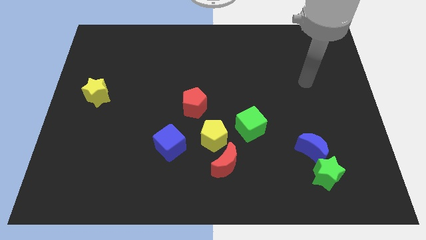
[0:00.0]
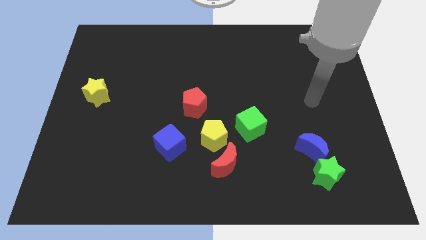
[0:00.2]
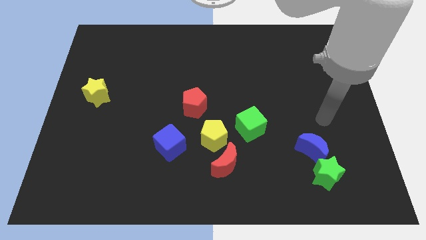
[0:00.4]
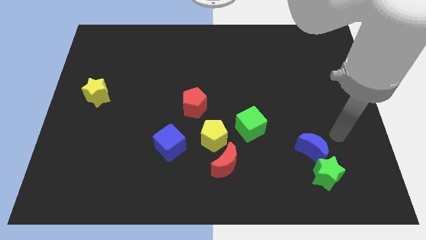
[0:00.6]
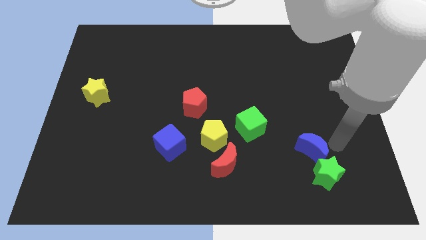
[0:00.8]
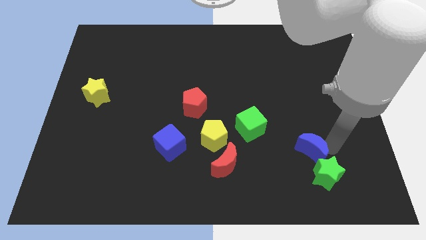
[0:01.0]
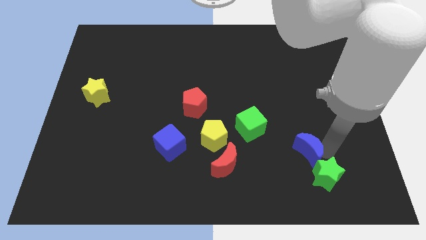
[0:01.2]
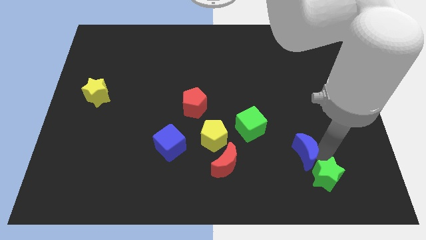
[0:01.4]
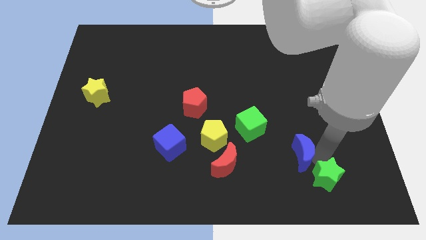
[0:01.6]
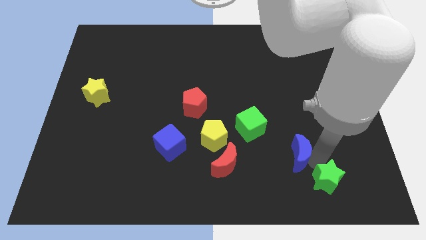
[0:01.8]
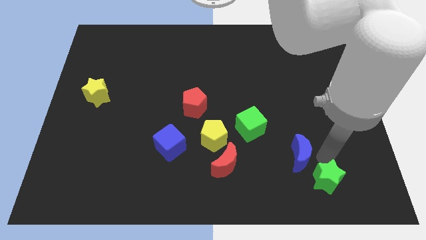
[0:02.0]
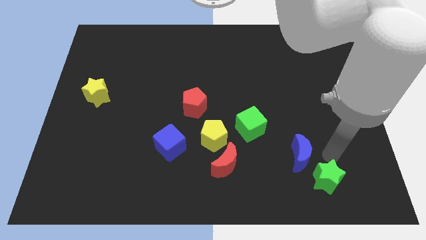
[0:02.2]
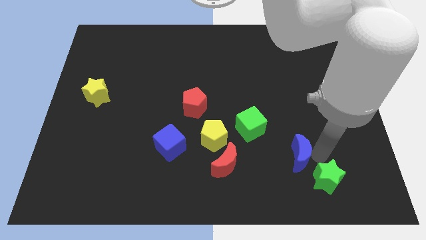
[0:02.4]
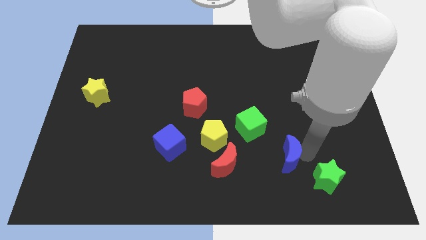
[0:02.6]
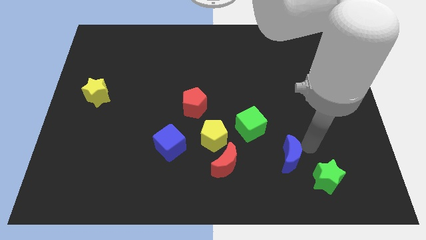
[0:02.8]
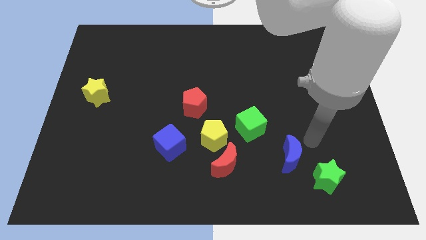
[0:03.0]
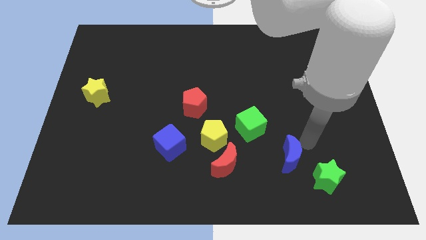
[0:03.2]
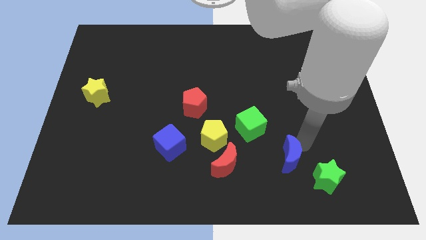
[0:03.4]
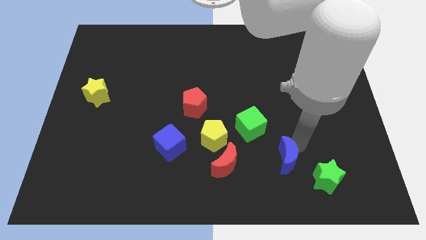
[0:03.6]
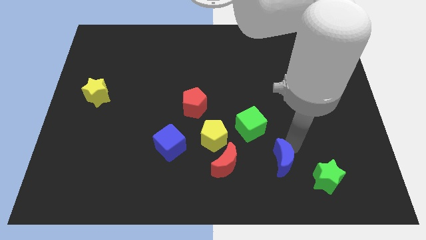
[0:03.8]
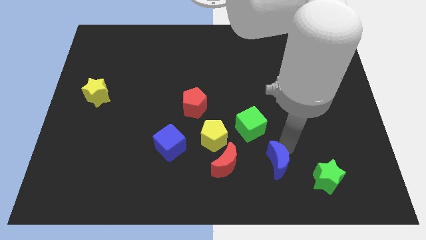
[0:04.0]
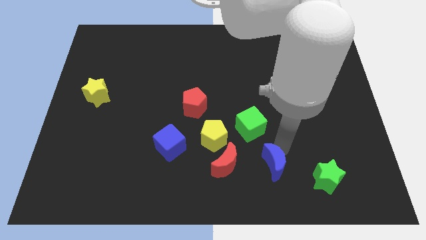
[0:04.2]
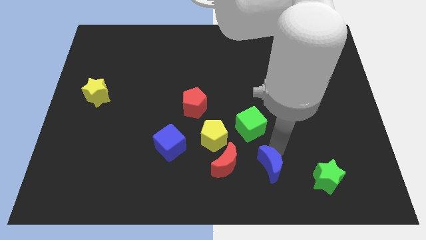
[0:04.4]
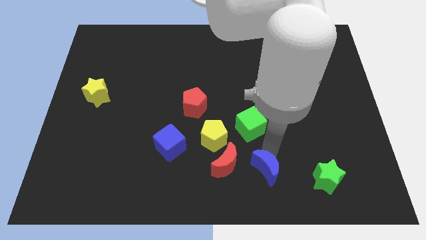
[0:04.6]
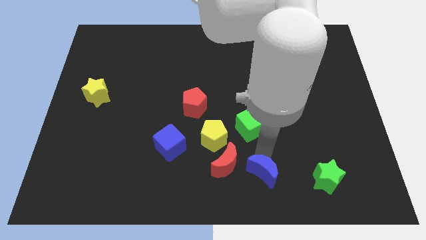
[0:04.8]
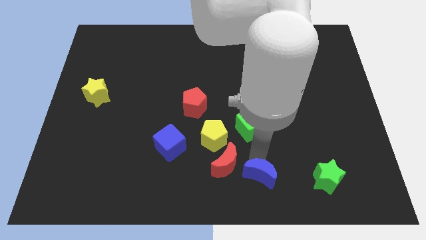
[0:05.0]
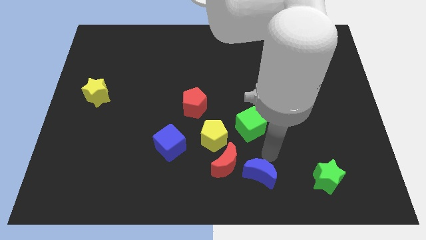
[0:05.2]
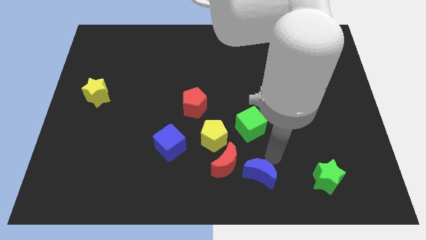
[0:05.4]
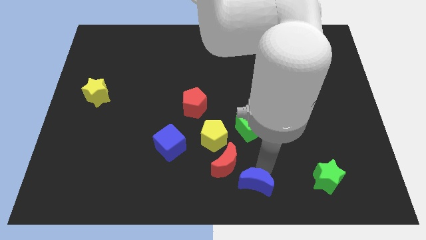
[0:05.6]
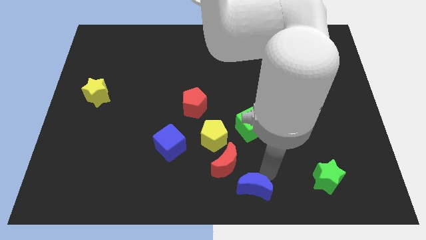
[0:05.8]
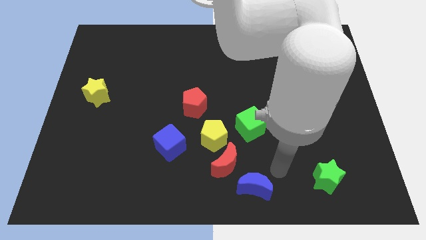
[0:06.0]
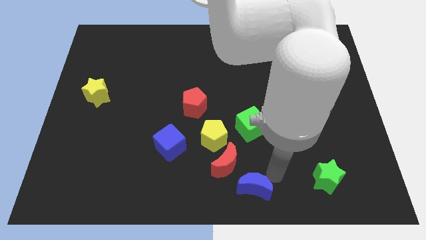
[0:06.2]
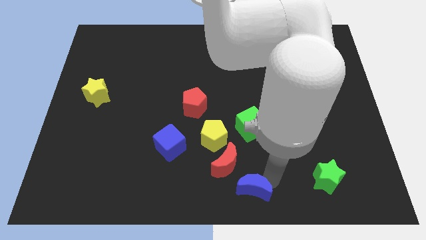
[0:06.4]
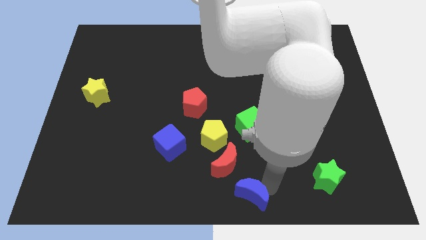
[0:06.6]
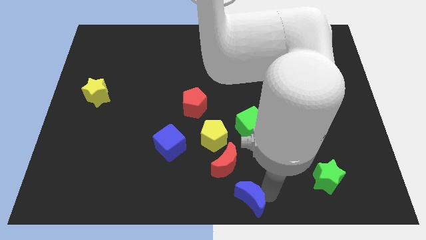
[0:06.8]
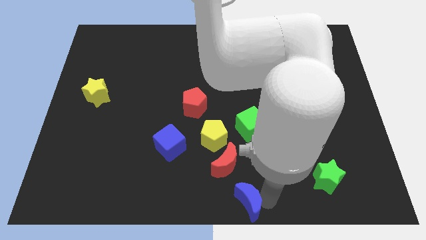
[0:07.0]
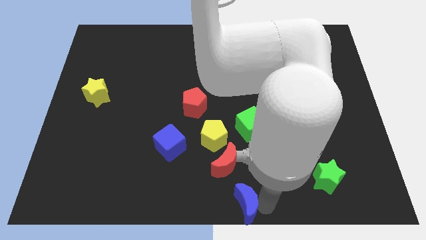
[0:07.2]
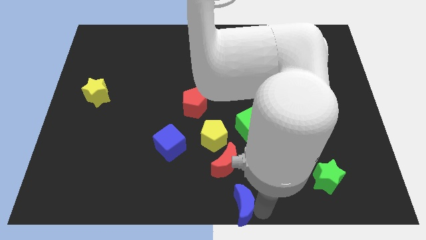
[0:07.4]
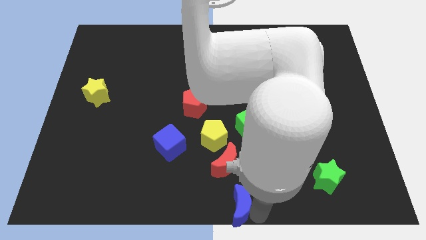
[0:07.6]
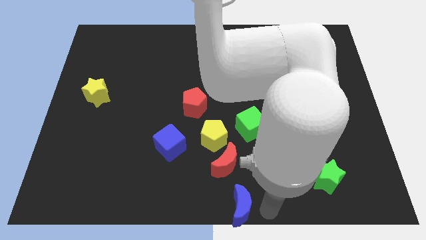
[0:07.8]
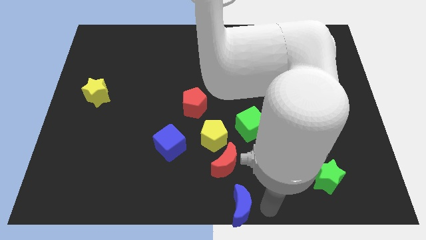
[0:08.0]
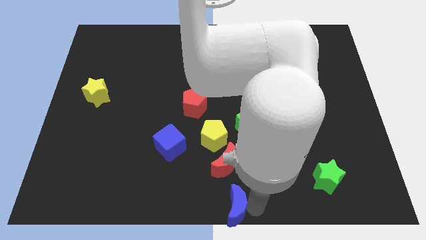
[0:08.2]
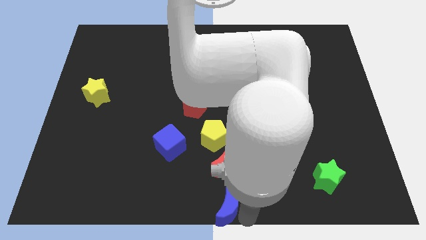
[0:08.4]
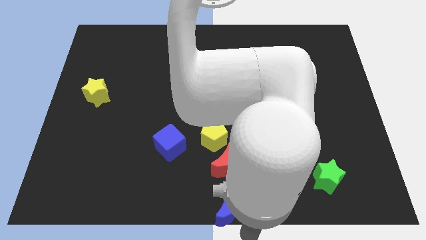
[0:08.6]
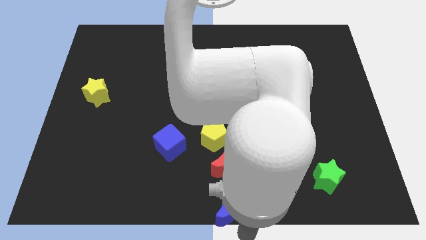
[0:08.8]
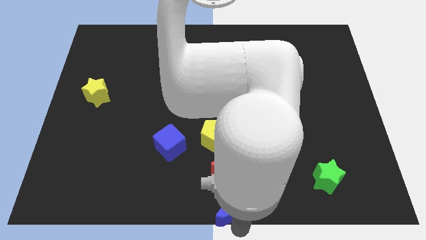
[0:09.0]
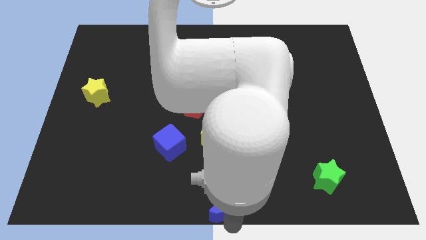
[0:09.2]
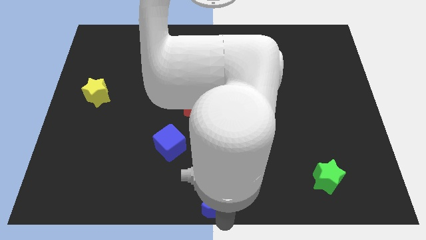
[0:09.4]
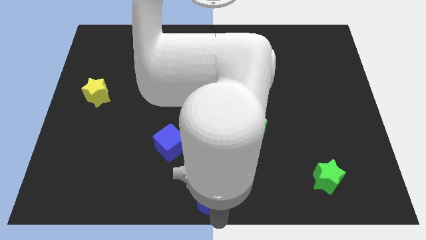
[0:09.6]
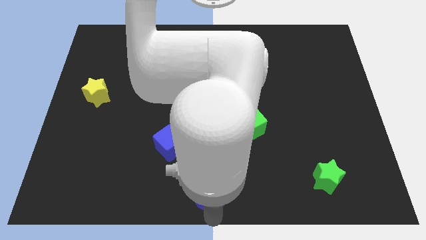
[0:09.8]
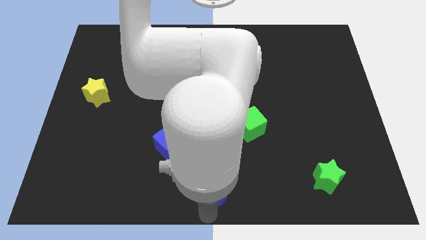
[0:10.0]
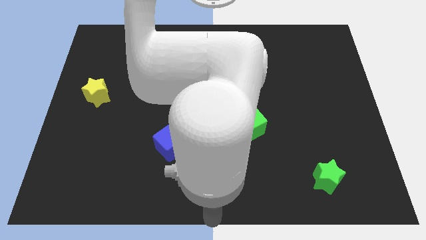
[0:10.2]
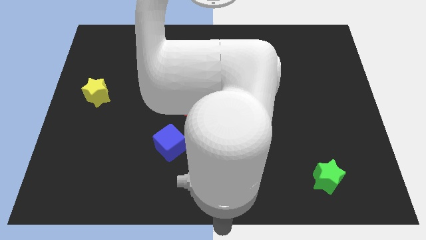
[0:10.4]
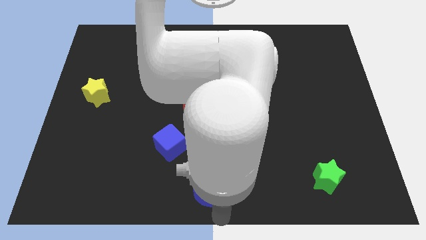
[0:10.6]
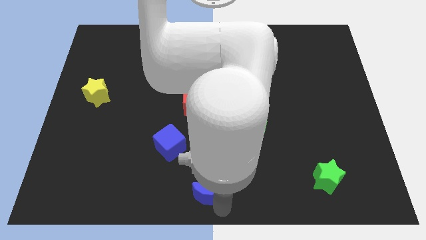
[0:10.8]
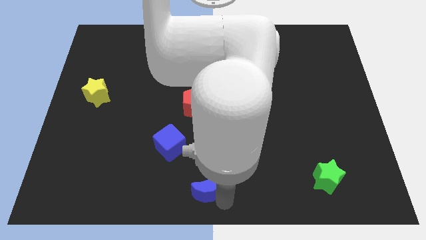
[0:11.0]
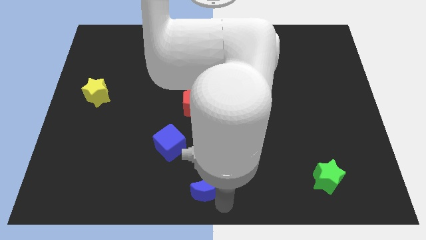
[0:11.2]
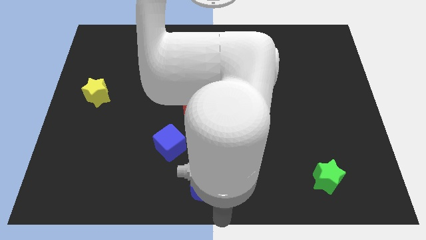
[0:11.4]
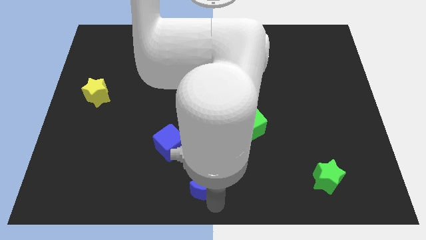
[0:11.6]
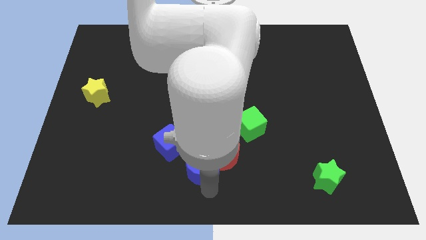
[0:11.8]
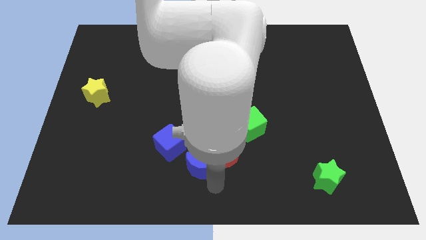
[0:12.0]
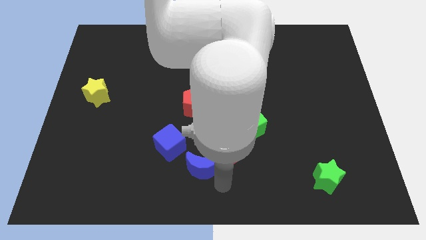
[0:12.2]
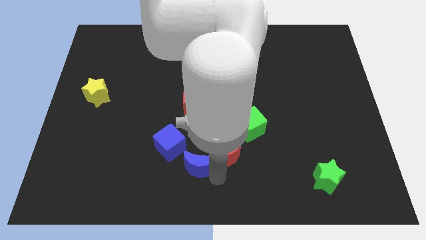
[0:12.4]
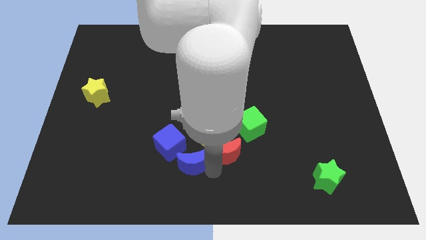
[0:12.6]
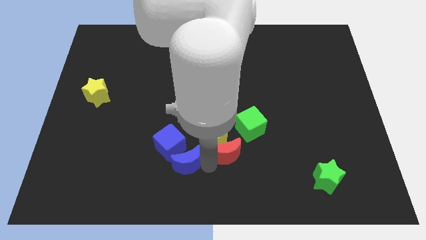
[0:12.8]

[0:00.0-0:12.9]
move the blue moon close to the blue cube

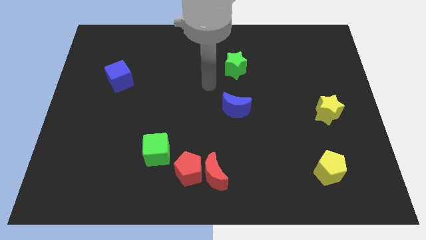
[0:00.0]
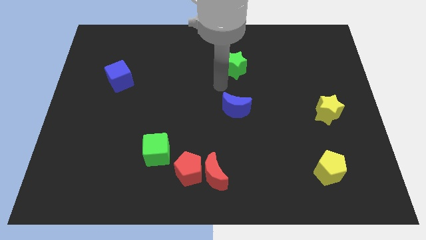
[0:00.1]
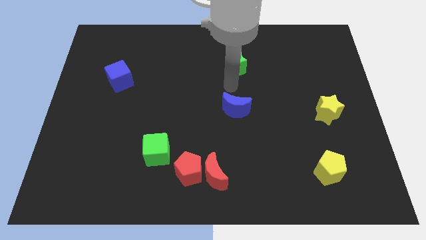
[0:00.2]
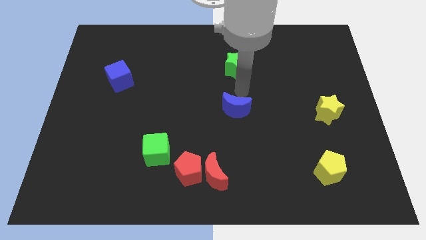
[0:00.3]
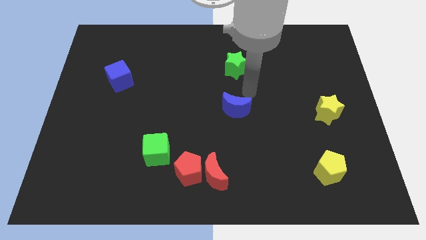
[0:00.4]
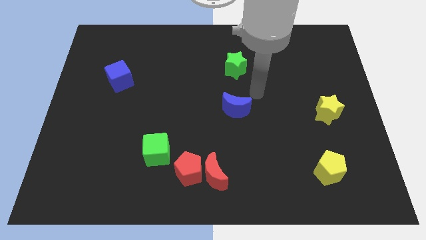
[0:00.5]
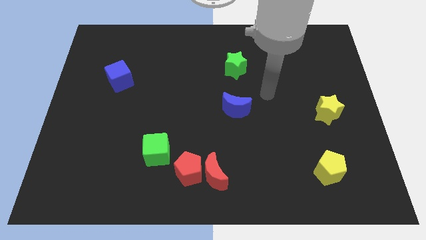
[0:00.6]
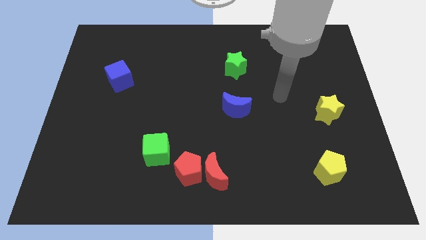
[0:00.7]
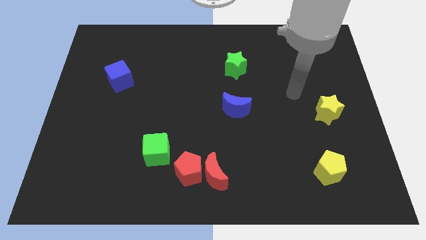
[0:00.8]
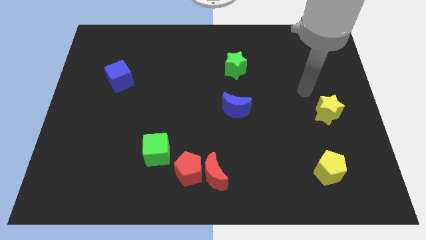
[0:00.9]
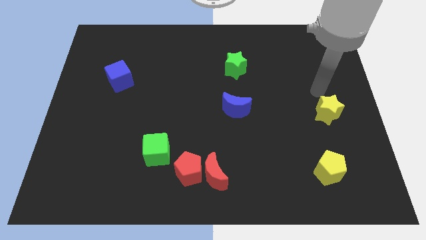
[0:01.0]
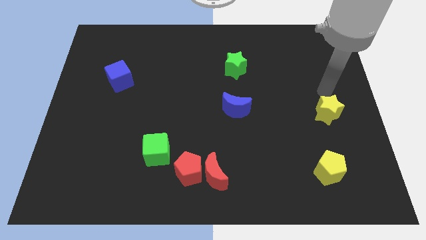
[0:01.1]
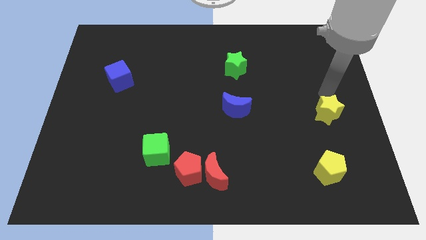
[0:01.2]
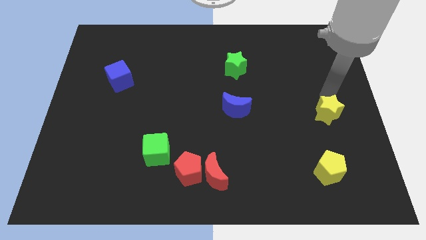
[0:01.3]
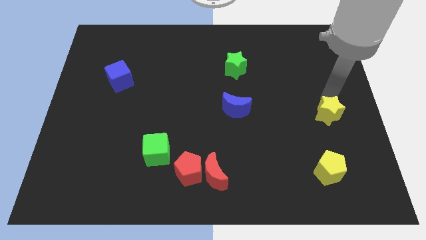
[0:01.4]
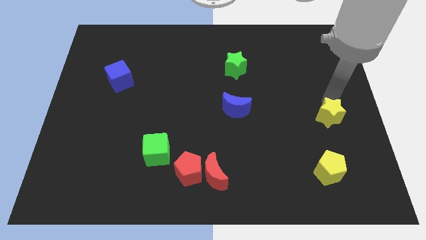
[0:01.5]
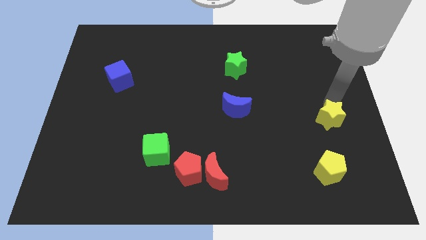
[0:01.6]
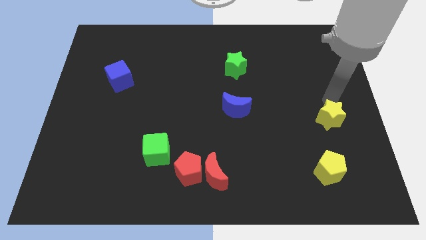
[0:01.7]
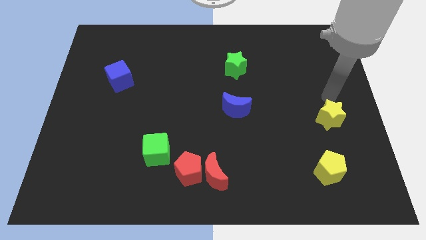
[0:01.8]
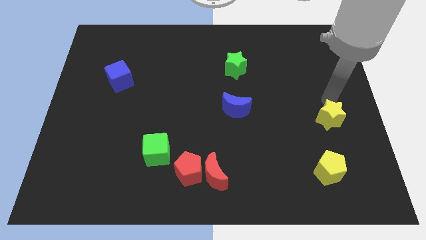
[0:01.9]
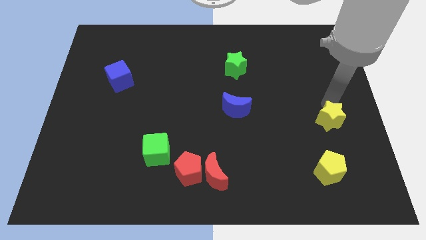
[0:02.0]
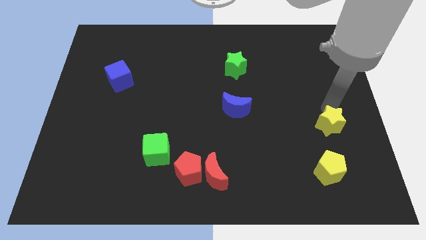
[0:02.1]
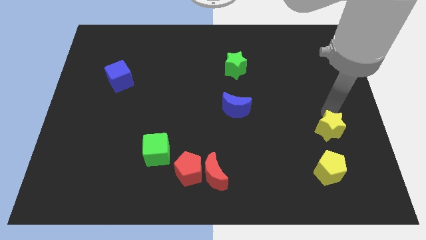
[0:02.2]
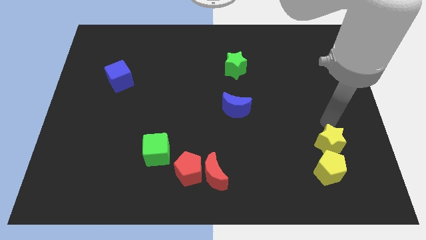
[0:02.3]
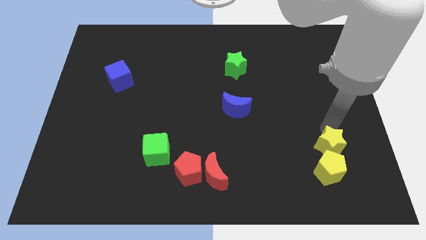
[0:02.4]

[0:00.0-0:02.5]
push the yellow star close to the yellow pentagon
